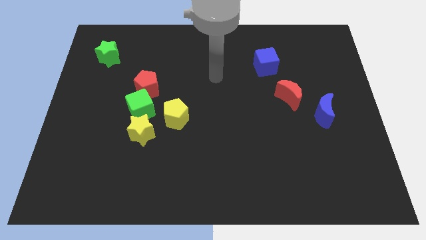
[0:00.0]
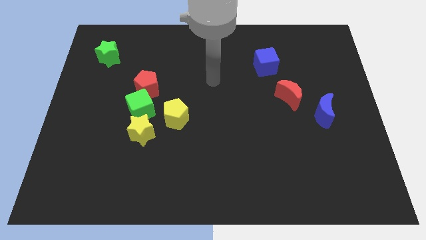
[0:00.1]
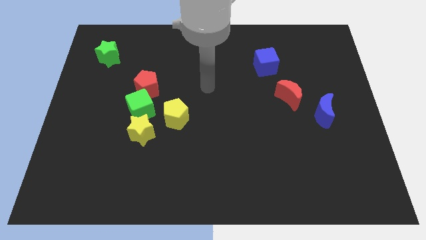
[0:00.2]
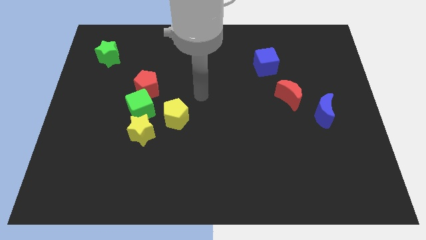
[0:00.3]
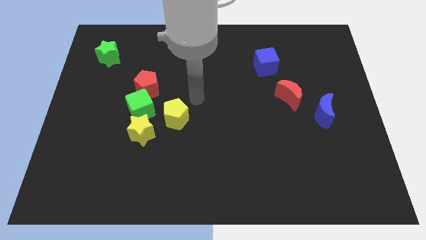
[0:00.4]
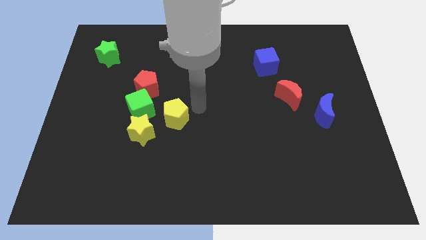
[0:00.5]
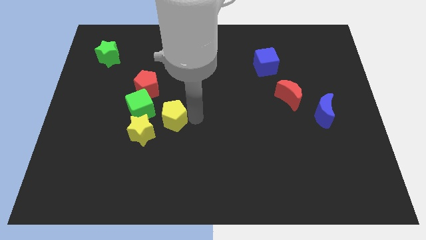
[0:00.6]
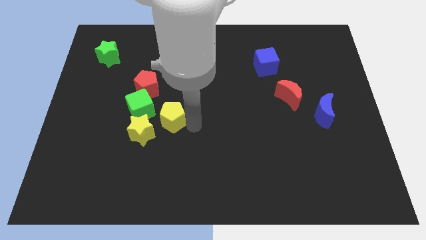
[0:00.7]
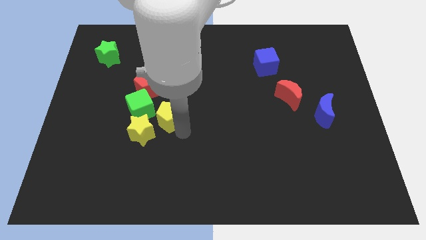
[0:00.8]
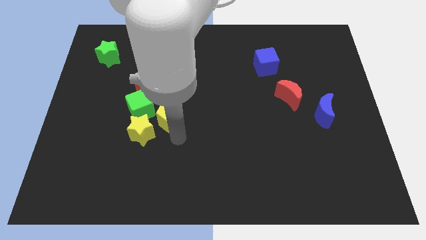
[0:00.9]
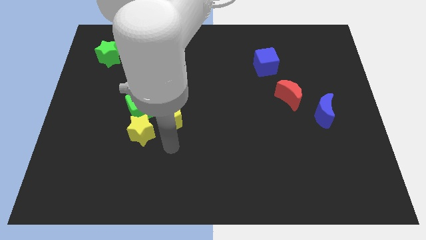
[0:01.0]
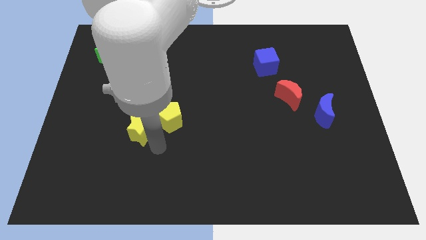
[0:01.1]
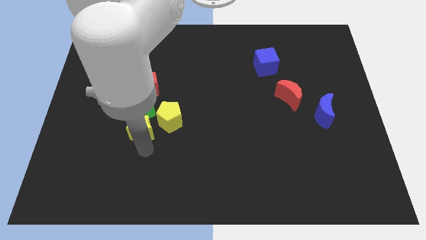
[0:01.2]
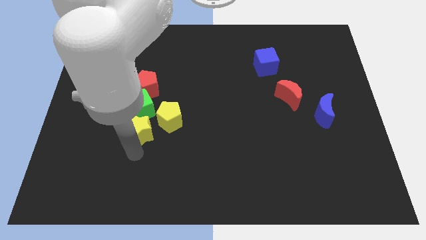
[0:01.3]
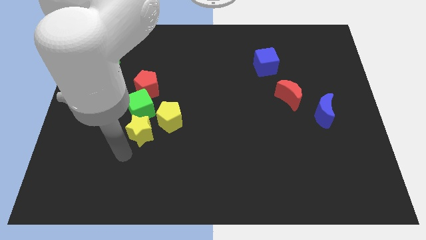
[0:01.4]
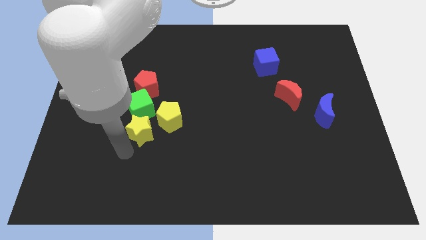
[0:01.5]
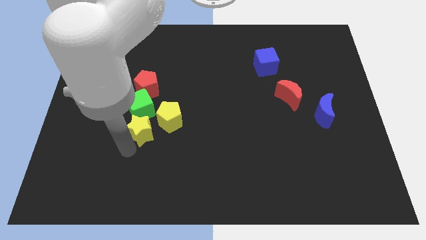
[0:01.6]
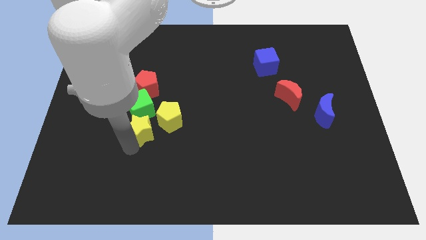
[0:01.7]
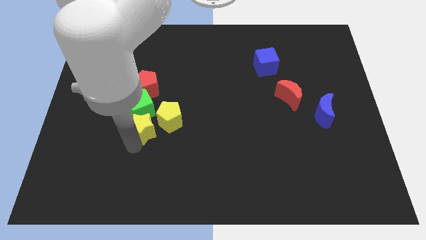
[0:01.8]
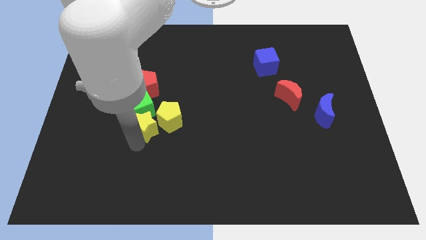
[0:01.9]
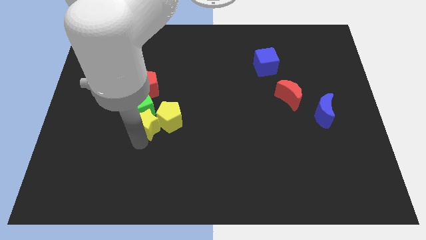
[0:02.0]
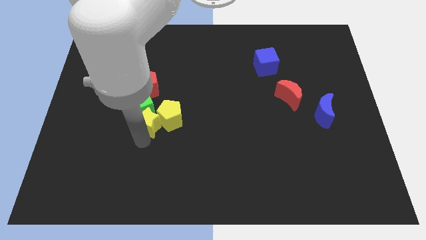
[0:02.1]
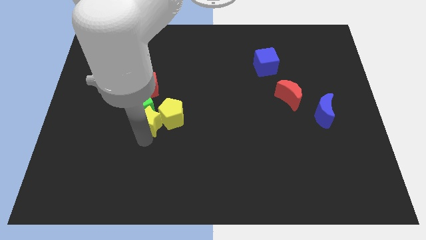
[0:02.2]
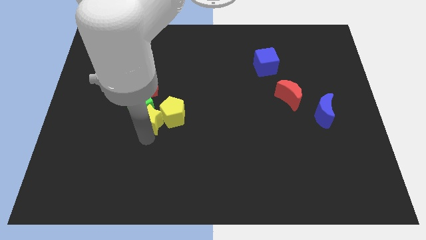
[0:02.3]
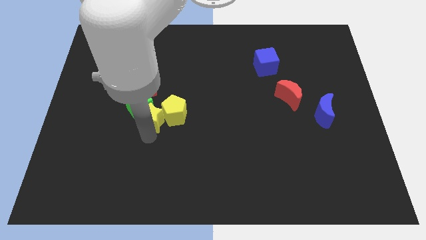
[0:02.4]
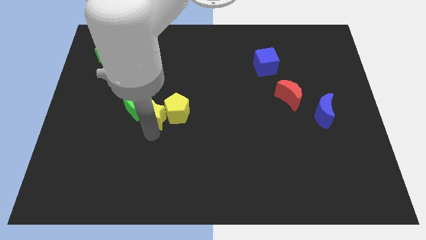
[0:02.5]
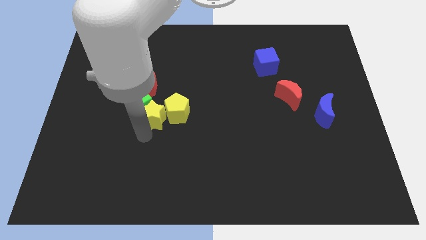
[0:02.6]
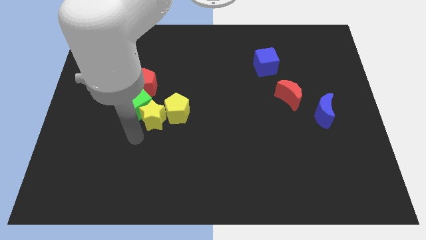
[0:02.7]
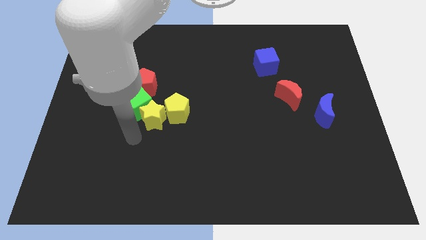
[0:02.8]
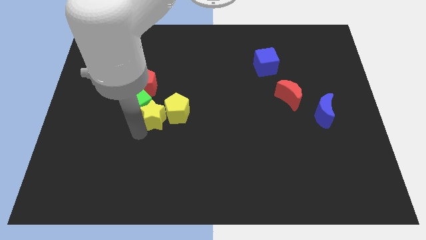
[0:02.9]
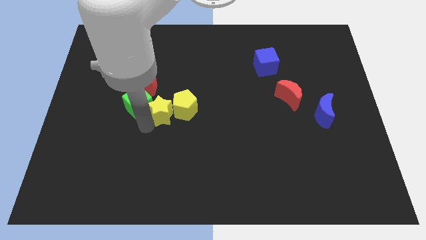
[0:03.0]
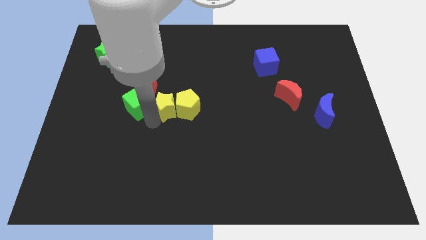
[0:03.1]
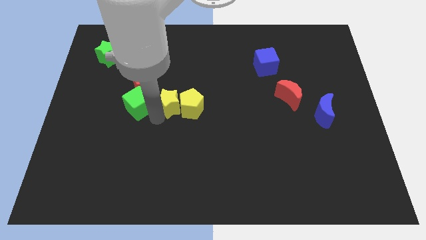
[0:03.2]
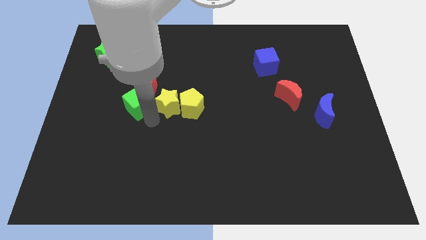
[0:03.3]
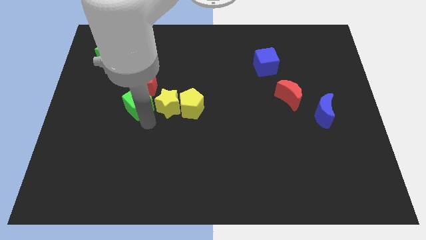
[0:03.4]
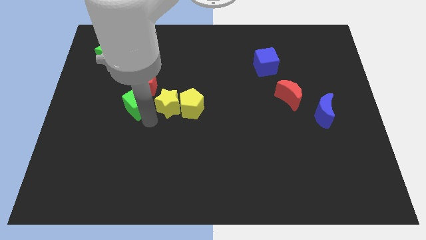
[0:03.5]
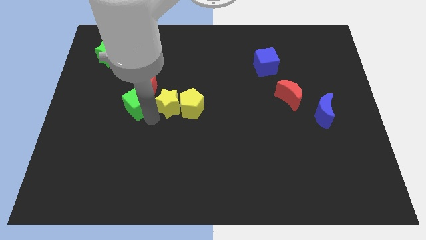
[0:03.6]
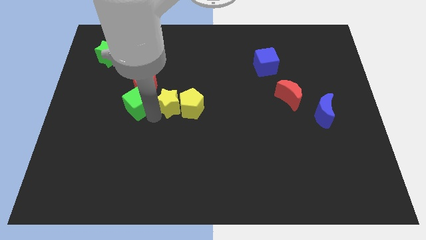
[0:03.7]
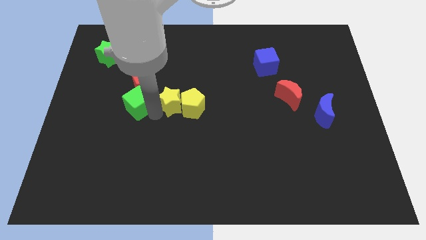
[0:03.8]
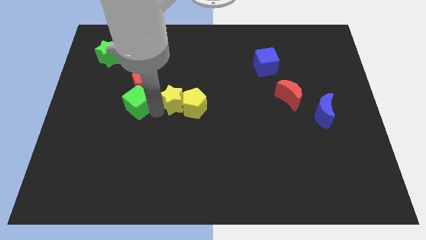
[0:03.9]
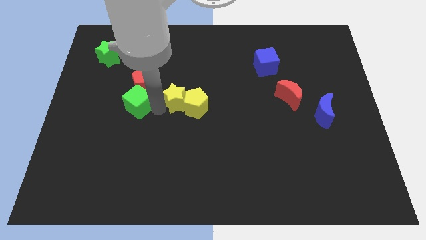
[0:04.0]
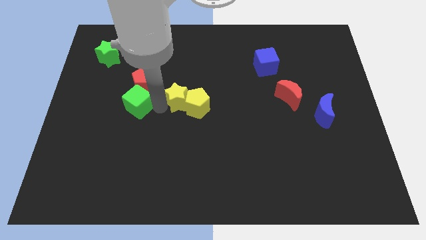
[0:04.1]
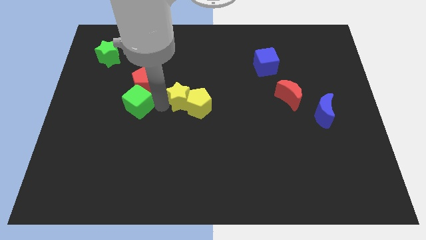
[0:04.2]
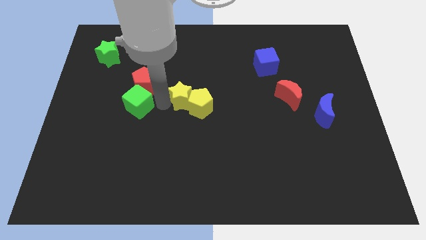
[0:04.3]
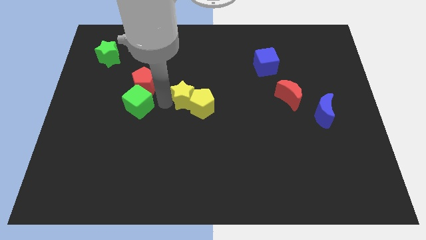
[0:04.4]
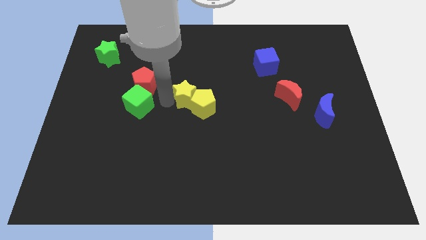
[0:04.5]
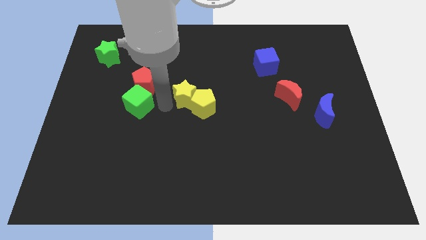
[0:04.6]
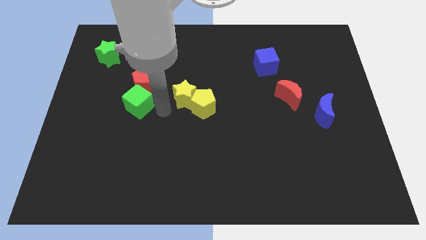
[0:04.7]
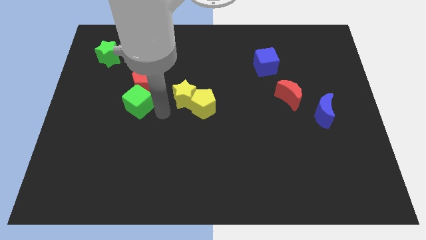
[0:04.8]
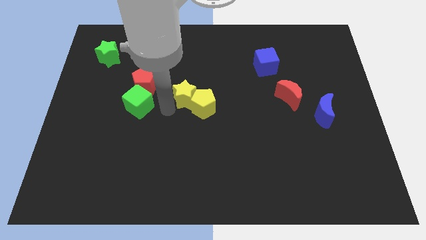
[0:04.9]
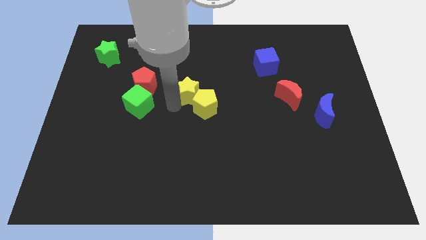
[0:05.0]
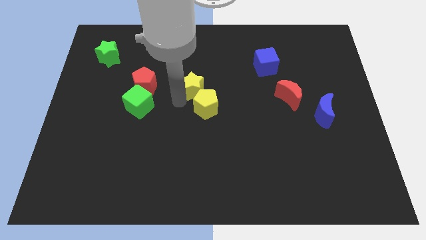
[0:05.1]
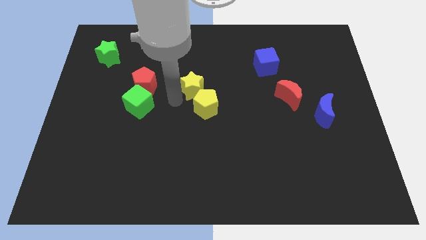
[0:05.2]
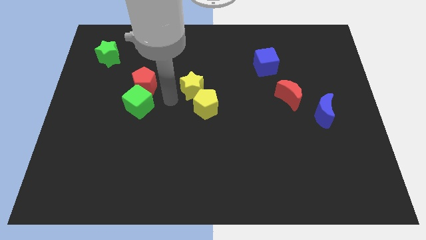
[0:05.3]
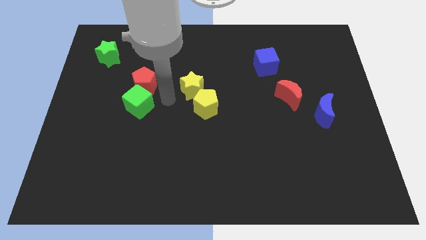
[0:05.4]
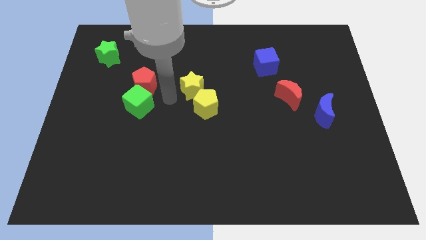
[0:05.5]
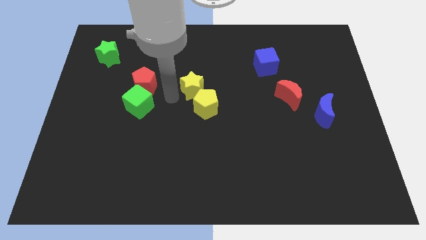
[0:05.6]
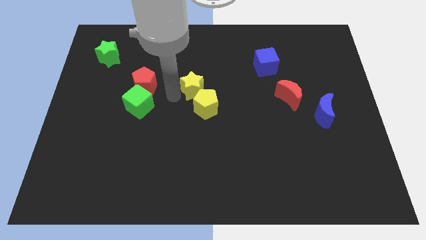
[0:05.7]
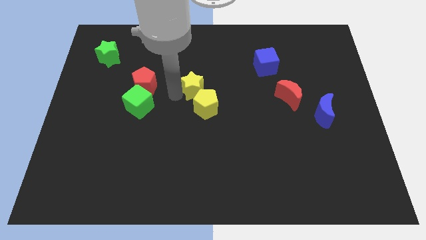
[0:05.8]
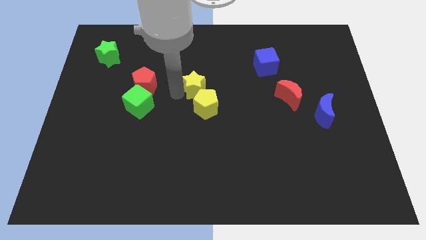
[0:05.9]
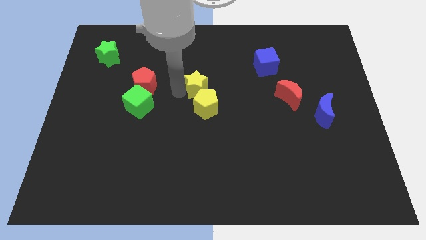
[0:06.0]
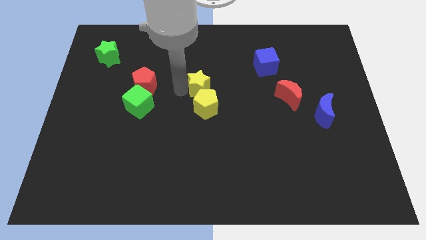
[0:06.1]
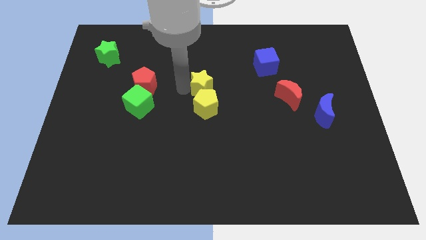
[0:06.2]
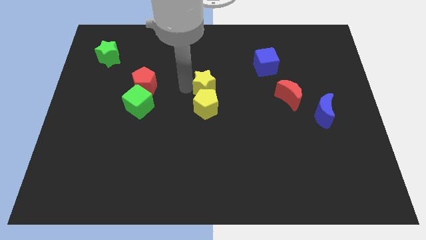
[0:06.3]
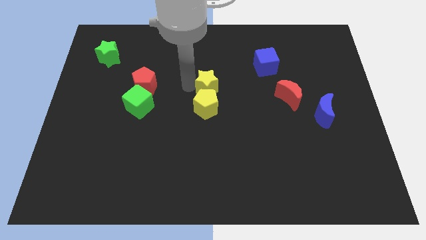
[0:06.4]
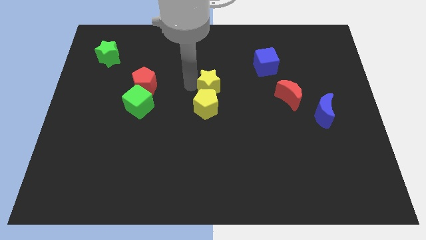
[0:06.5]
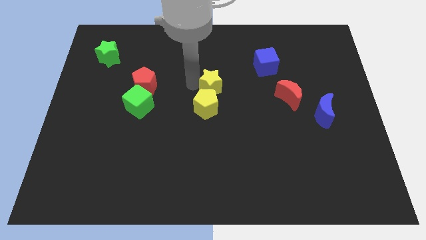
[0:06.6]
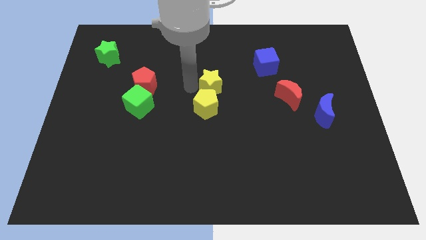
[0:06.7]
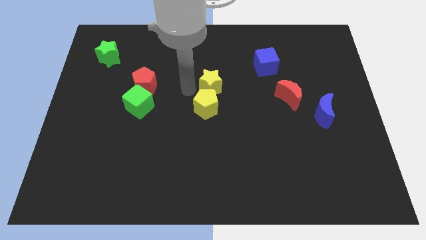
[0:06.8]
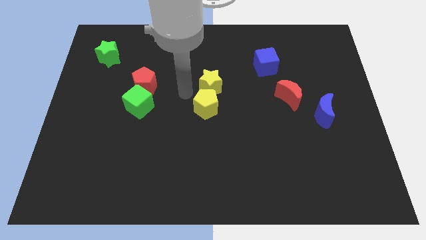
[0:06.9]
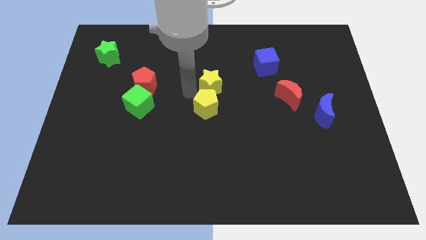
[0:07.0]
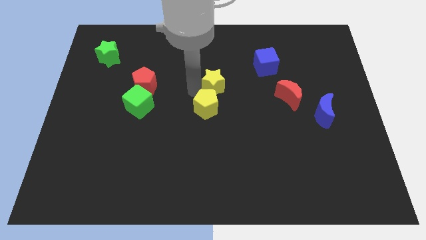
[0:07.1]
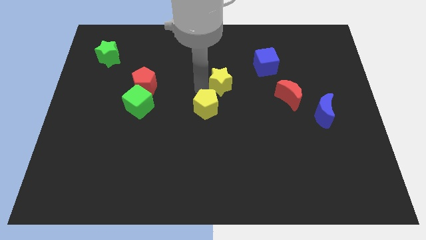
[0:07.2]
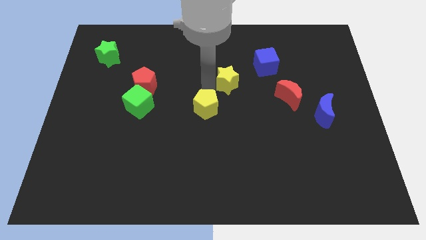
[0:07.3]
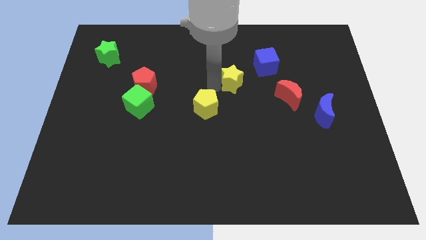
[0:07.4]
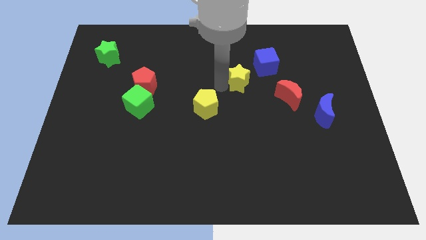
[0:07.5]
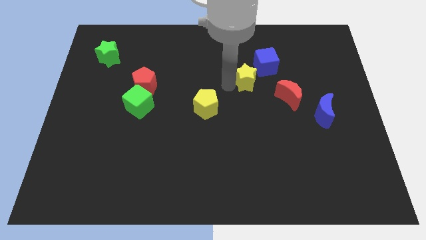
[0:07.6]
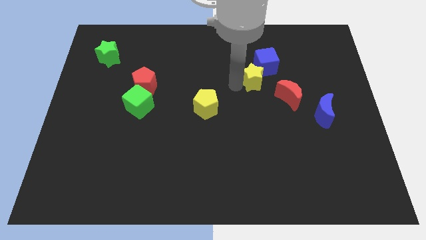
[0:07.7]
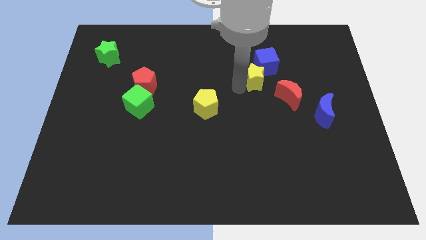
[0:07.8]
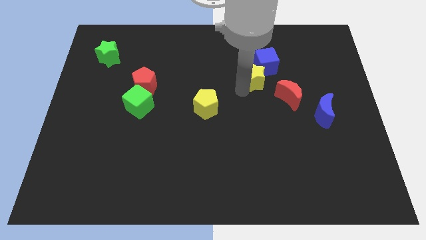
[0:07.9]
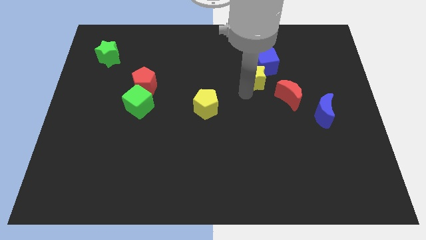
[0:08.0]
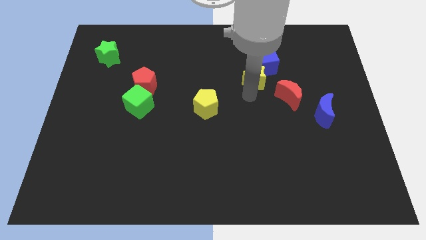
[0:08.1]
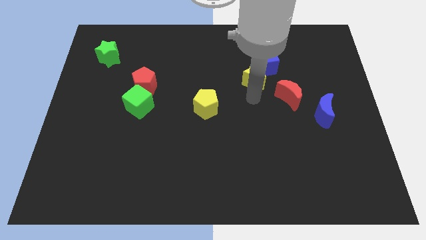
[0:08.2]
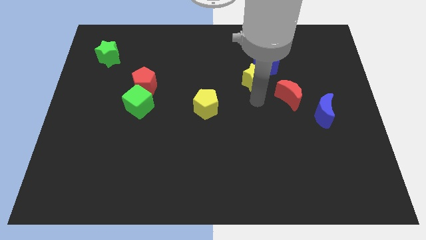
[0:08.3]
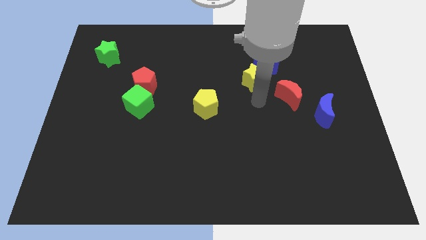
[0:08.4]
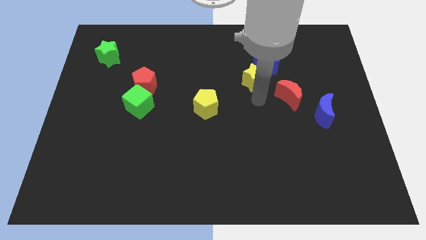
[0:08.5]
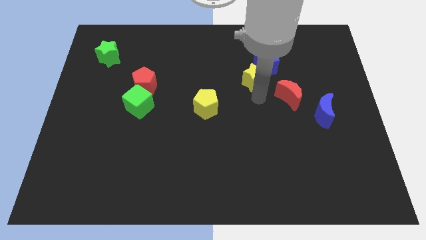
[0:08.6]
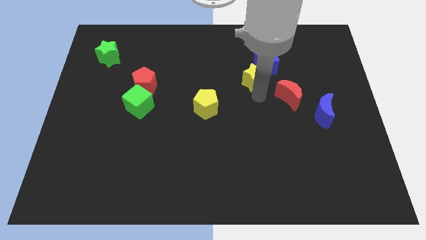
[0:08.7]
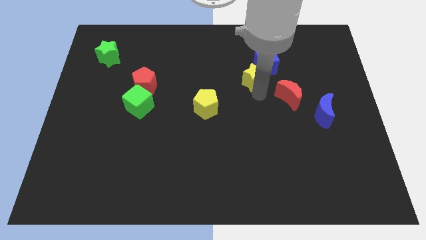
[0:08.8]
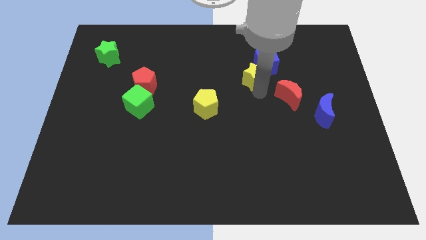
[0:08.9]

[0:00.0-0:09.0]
put the yellow star next to the blue cube
